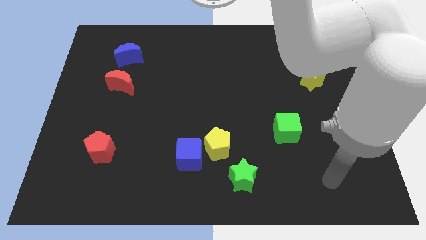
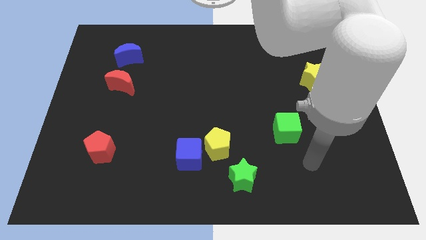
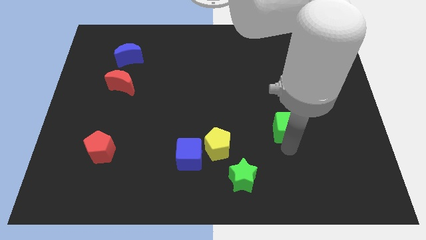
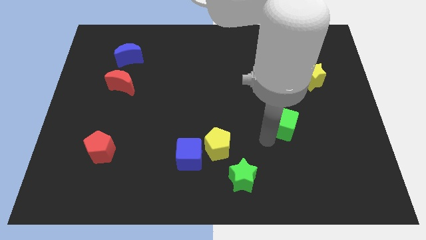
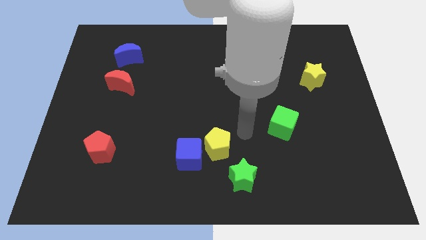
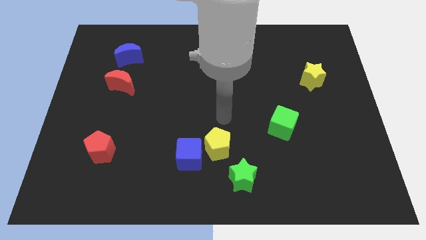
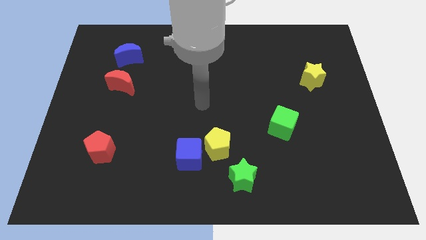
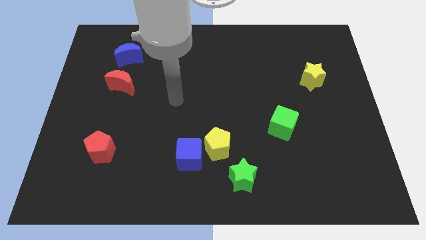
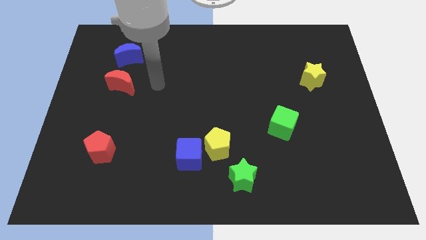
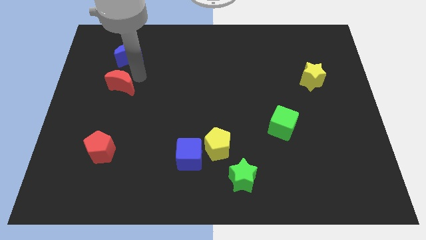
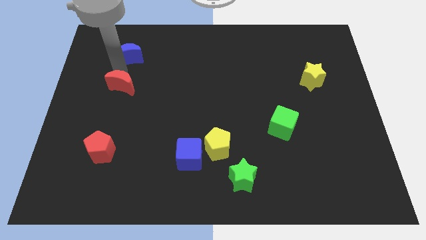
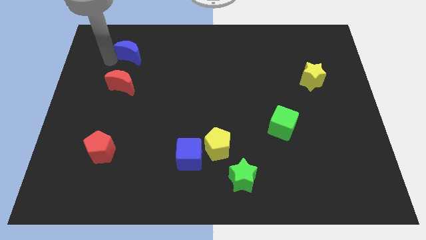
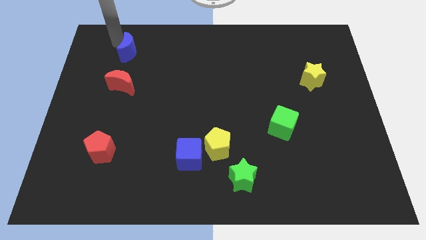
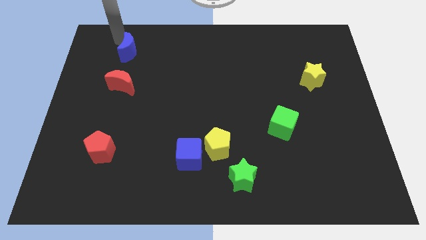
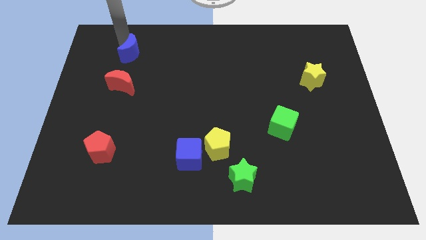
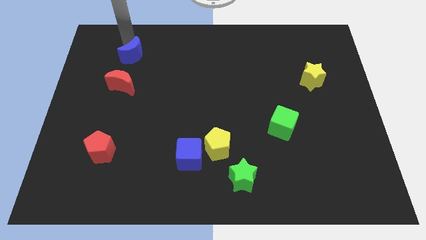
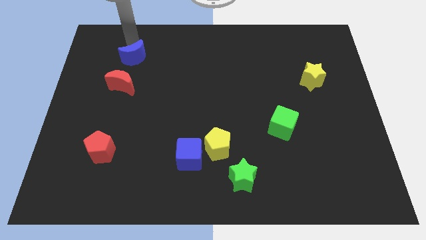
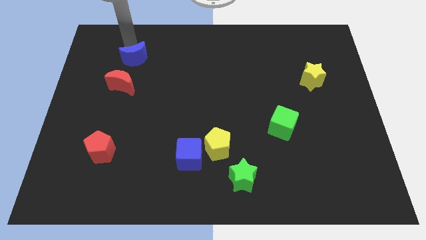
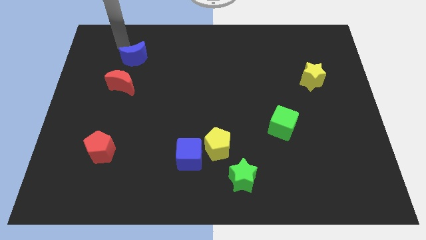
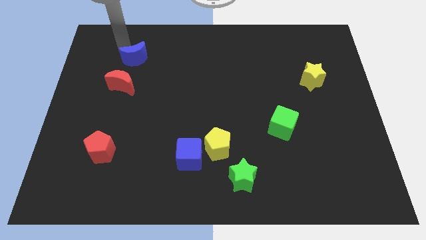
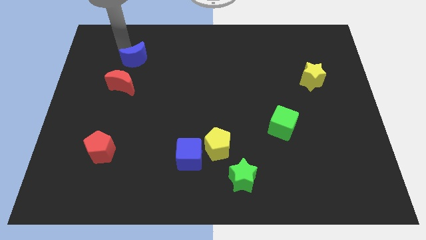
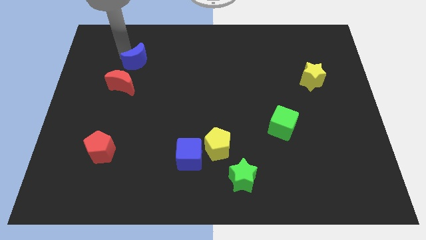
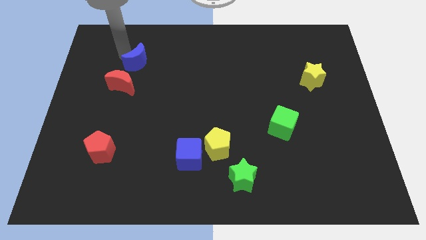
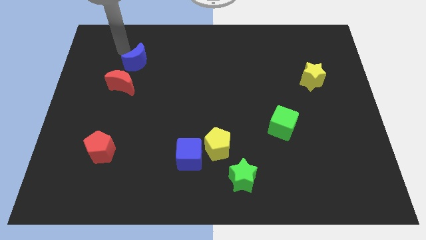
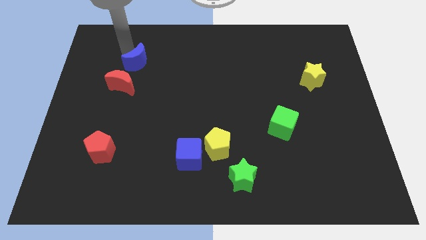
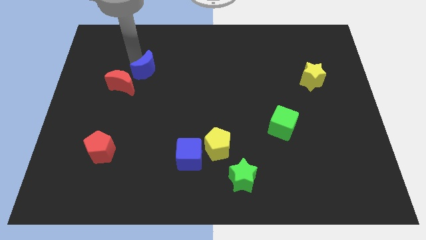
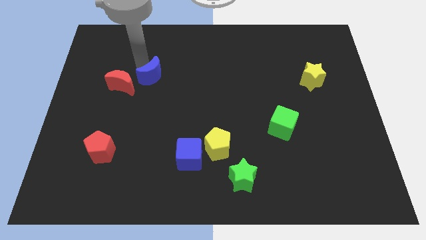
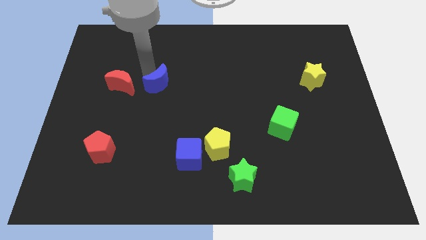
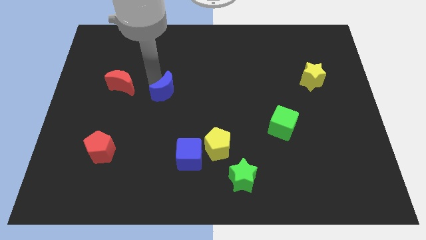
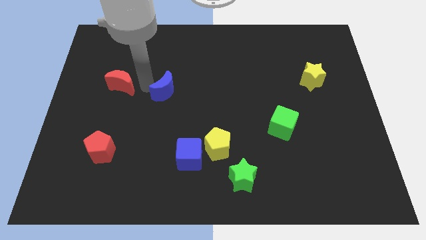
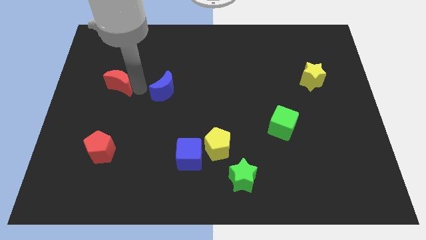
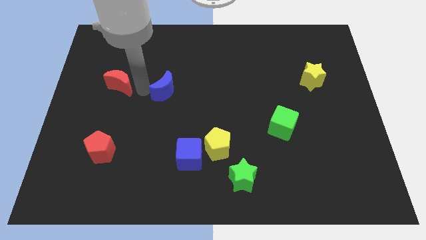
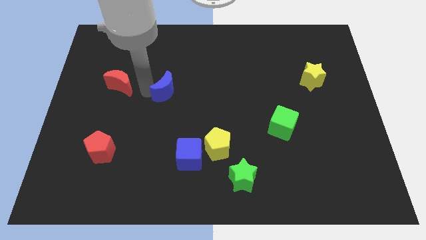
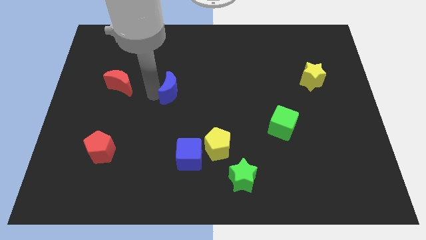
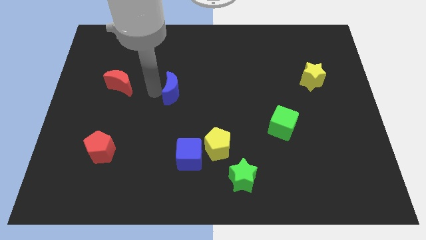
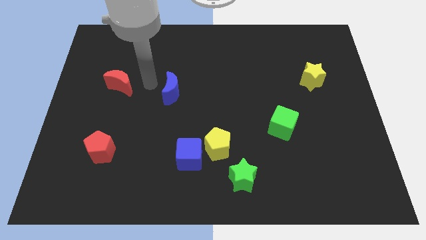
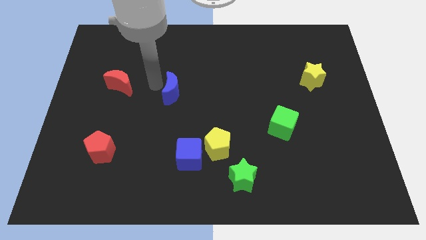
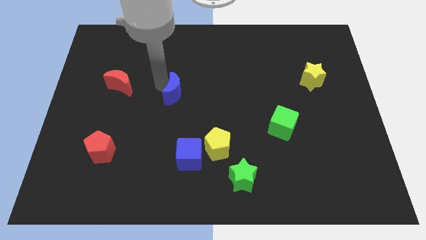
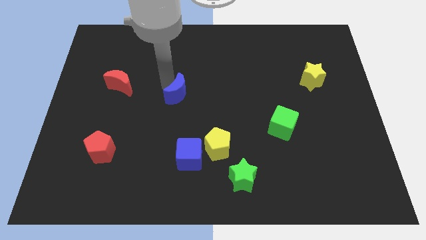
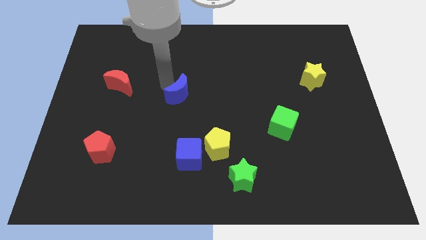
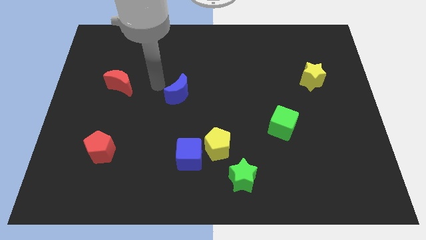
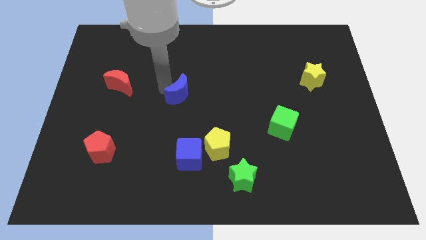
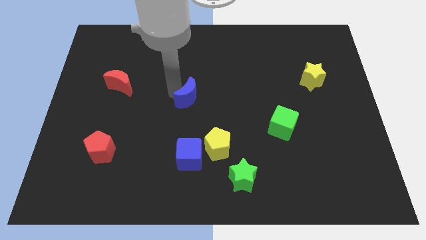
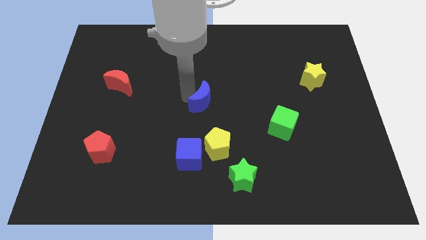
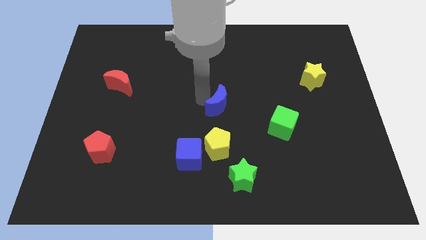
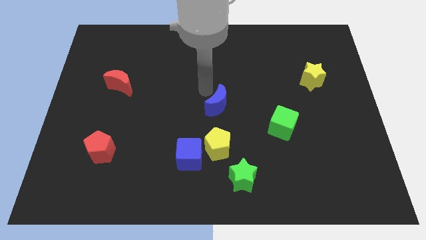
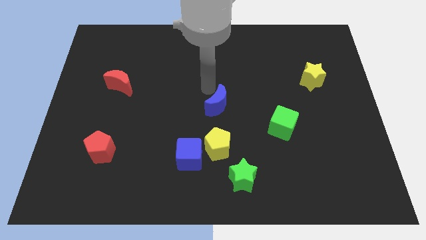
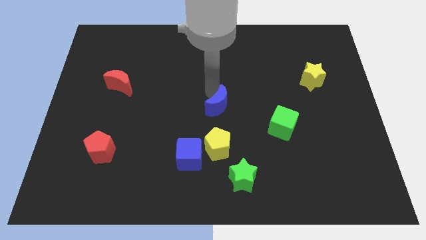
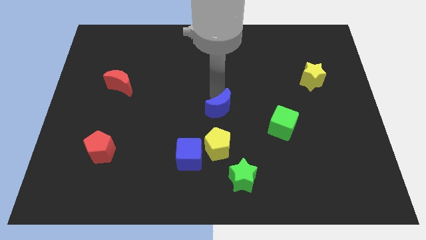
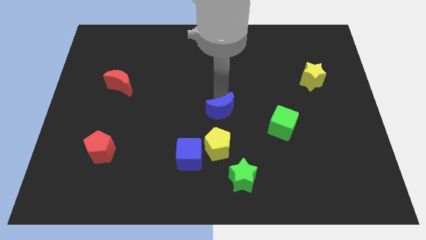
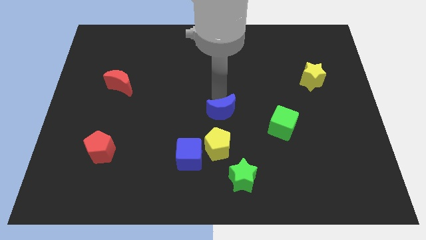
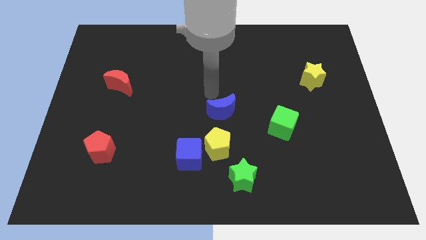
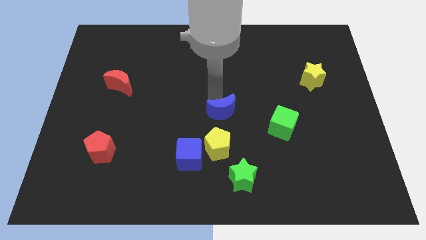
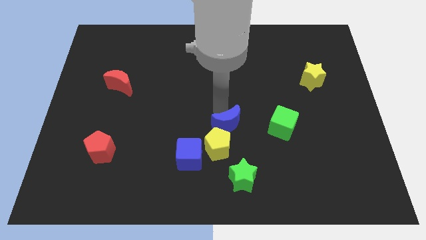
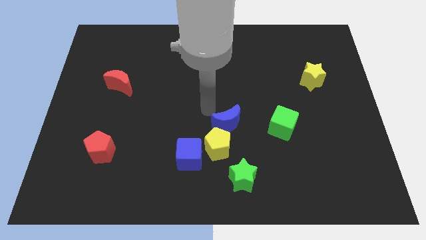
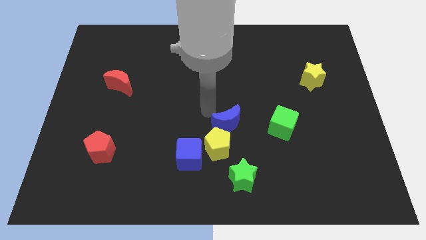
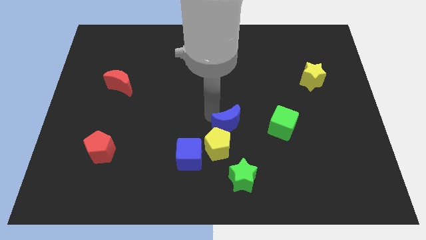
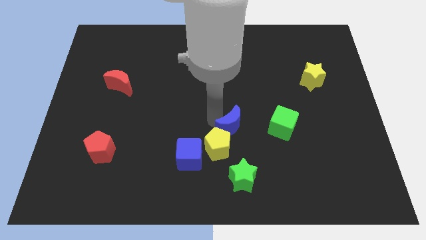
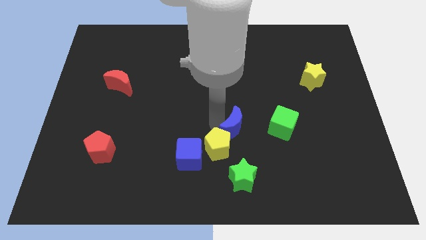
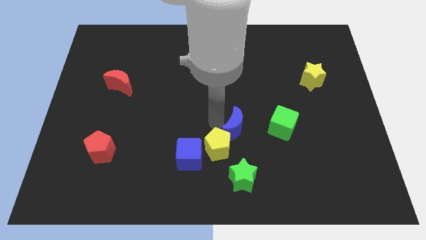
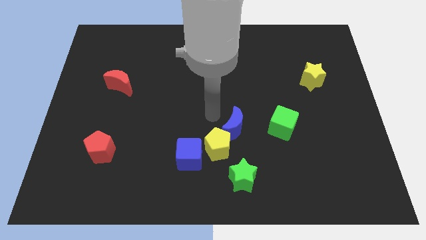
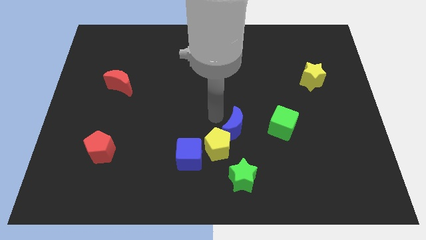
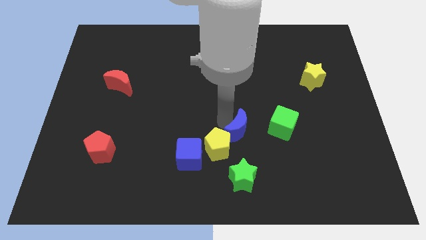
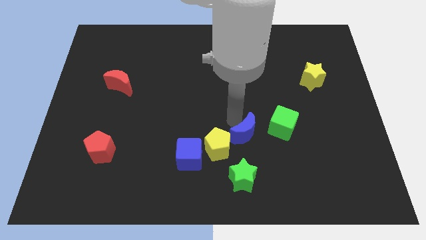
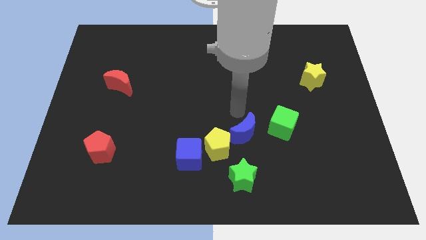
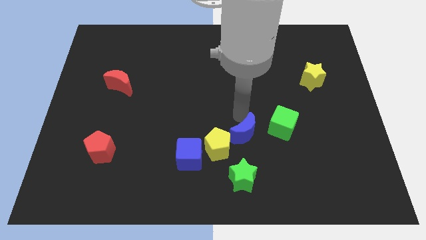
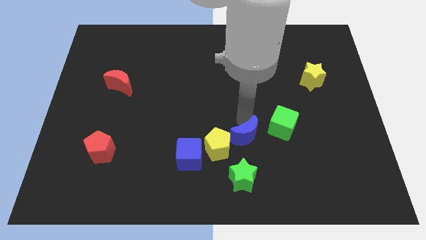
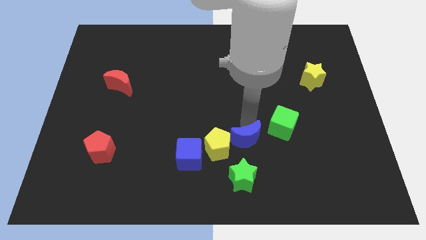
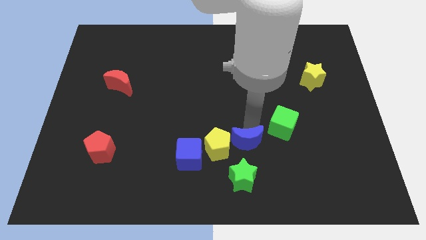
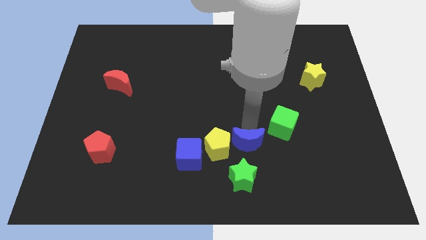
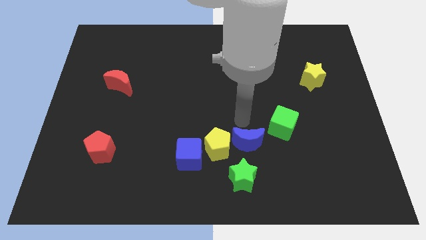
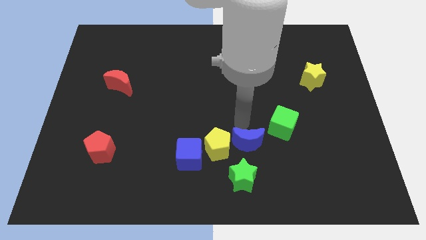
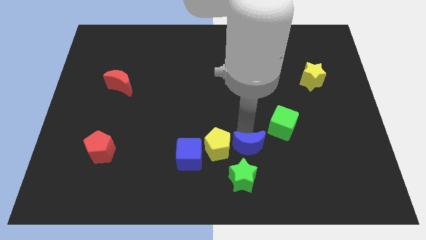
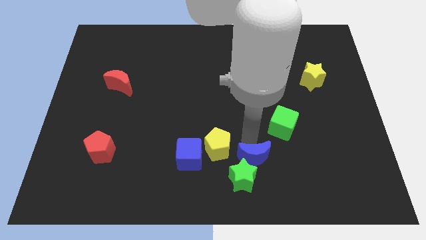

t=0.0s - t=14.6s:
put the blue moon to the green star
